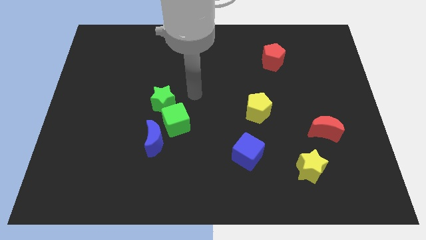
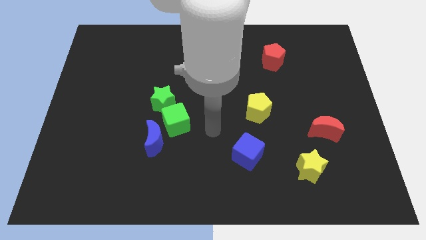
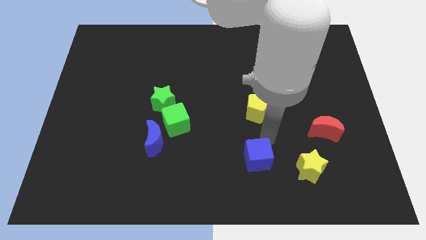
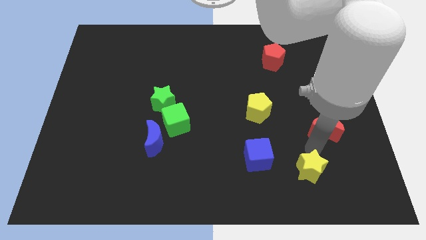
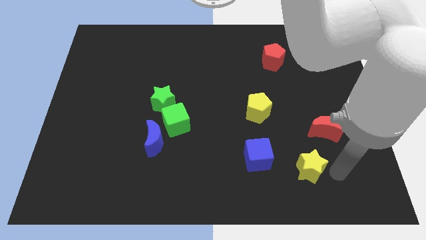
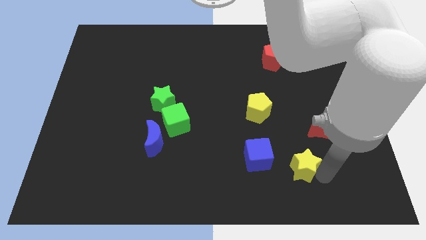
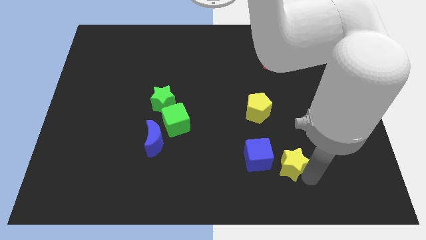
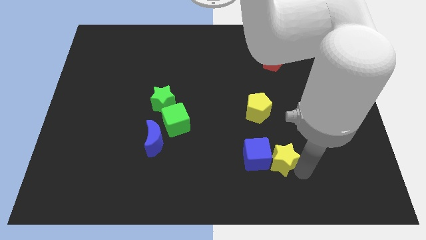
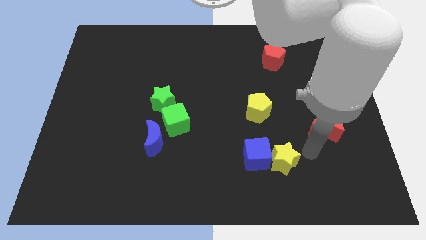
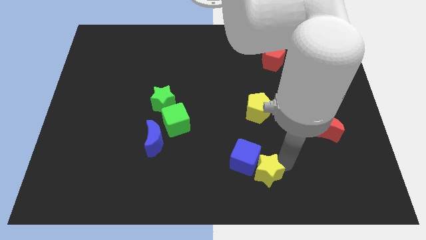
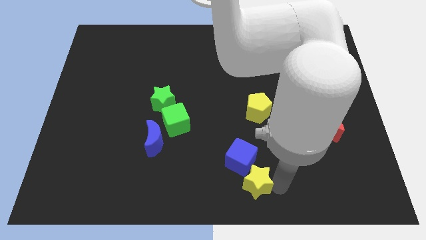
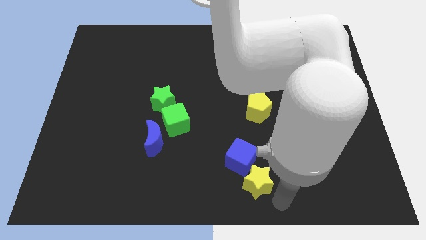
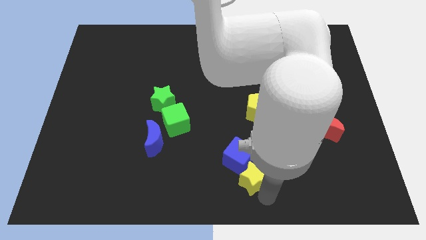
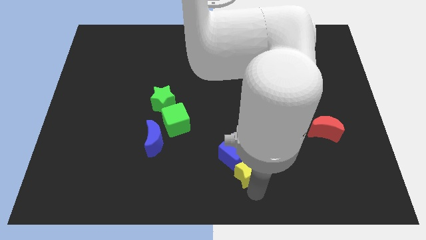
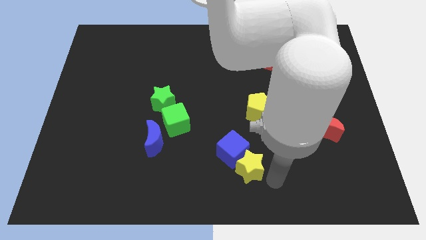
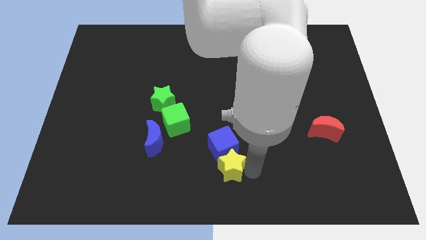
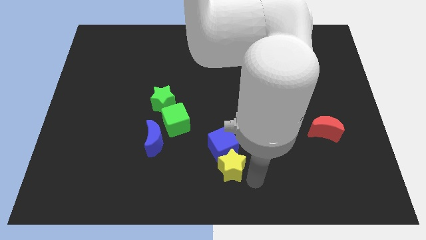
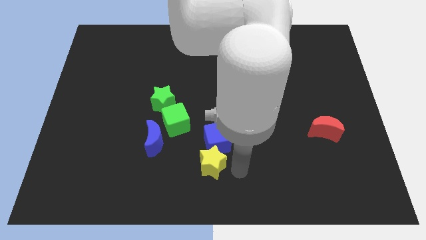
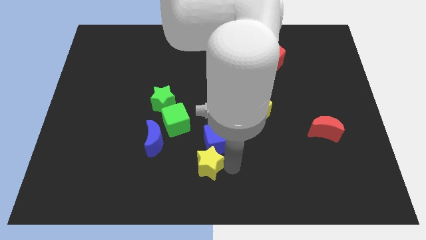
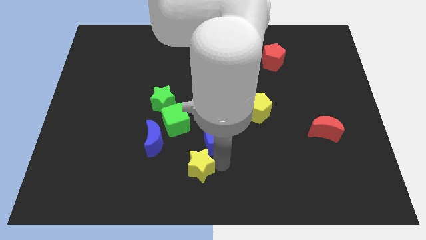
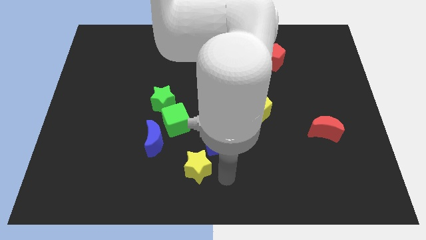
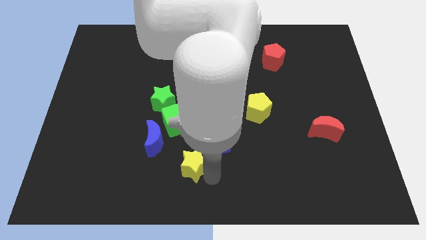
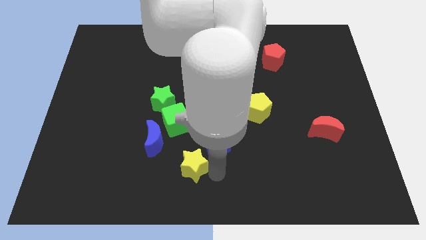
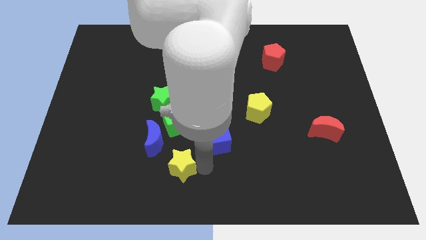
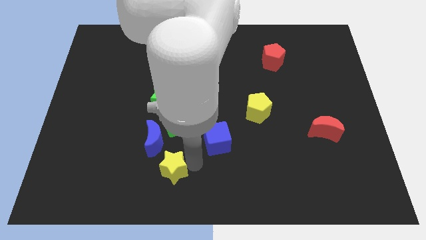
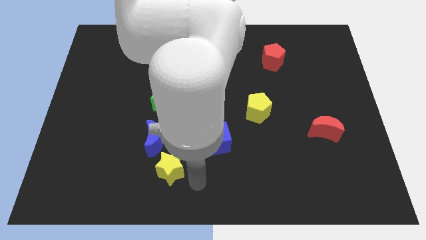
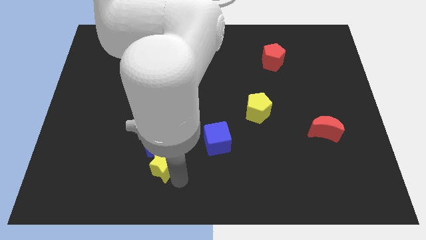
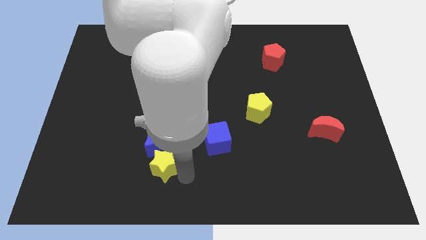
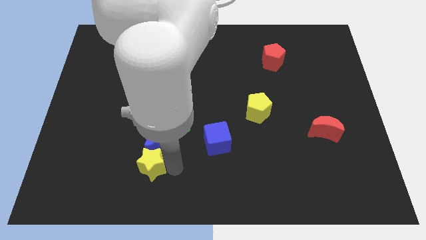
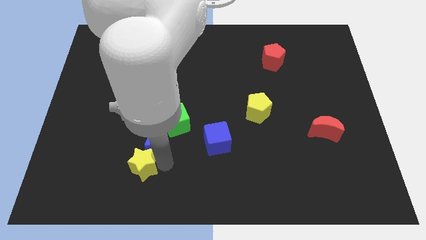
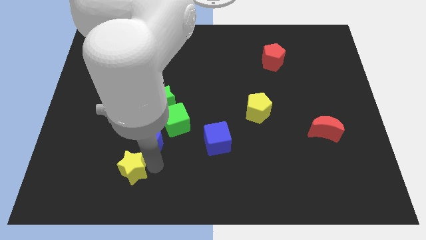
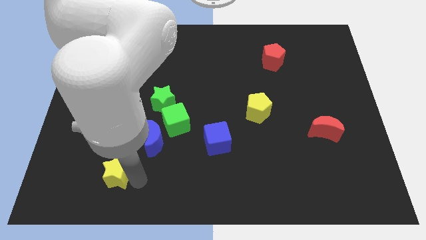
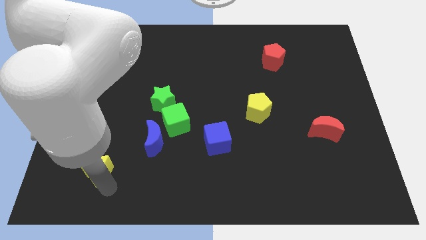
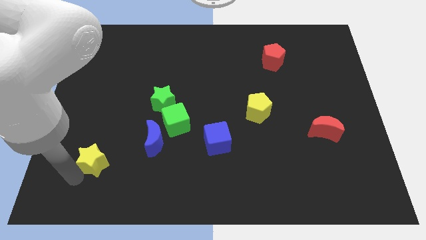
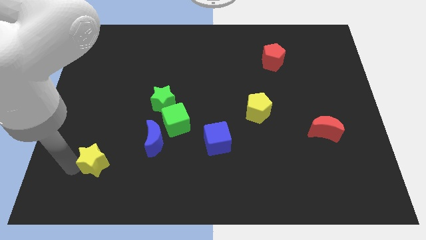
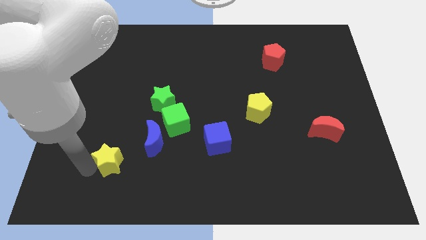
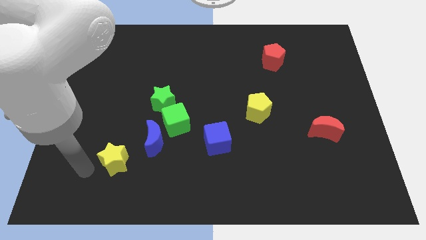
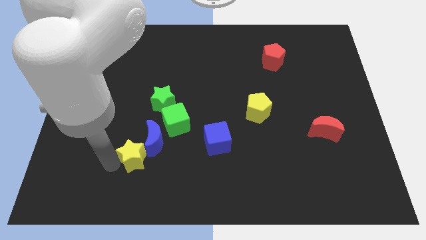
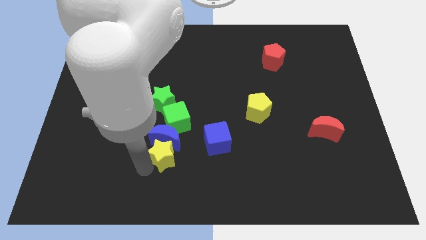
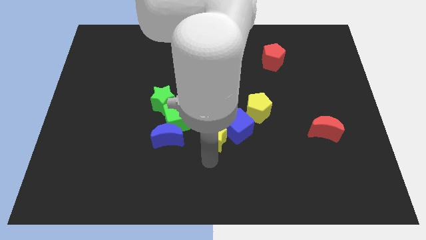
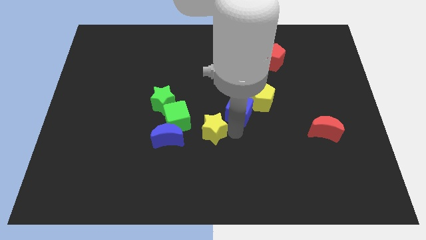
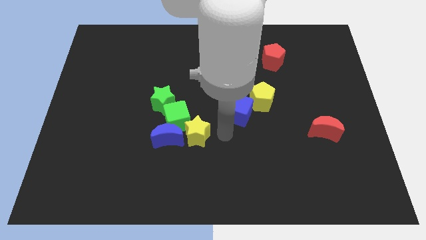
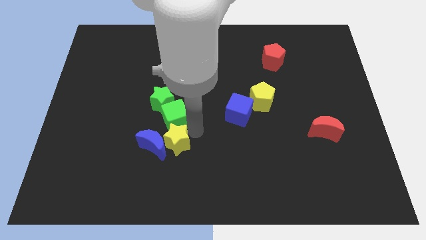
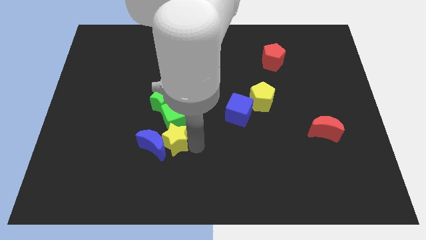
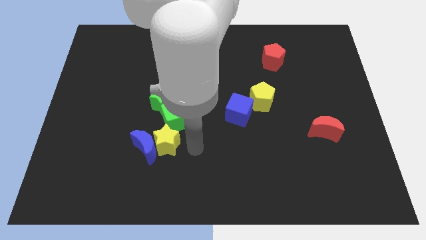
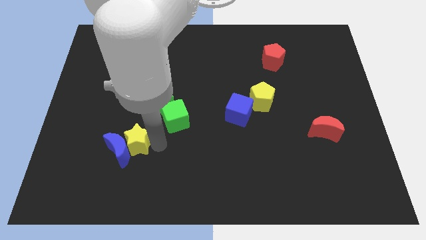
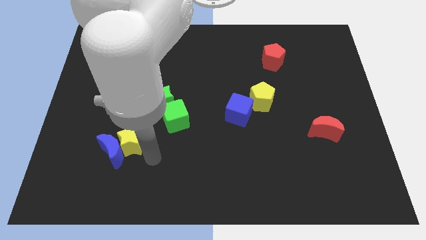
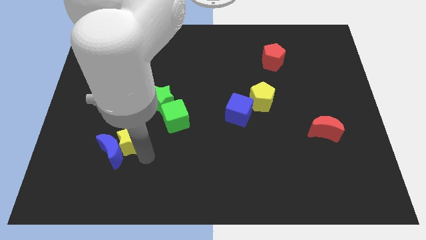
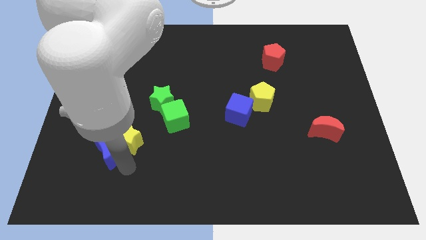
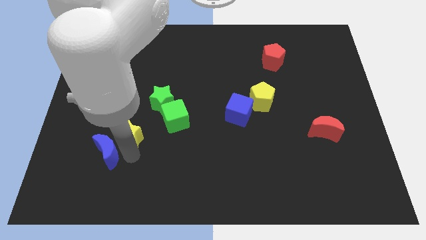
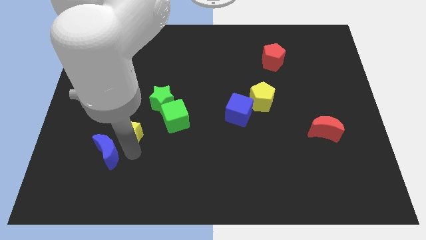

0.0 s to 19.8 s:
push the yellow star just left of the green cube

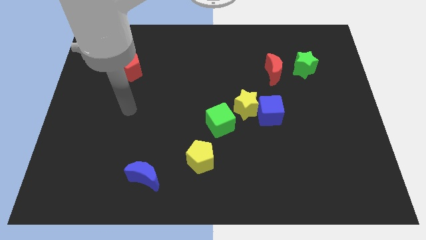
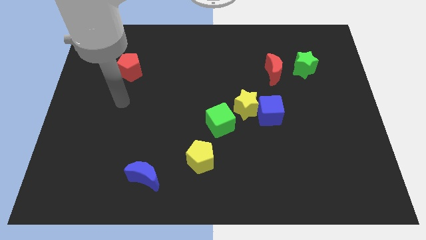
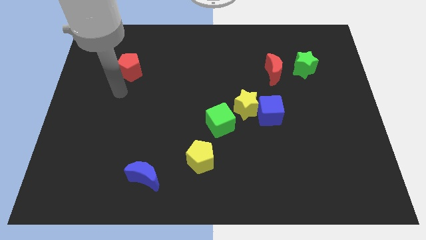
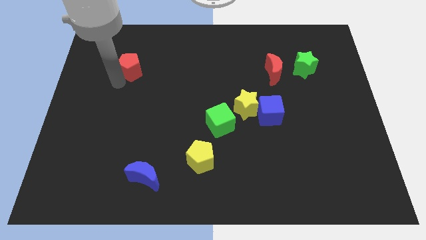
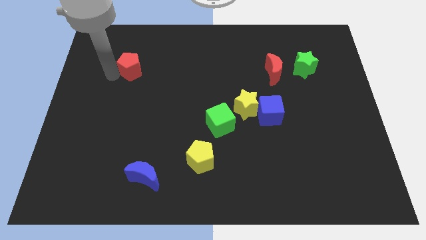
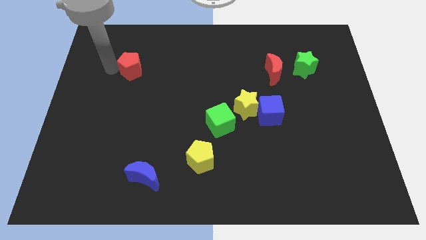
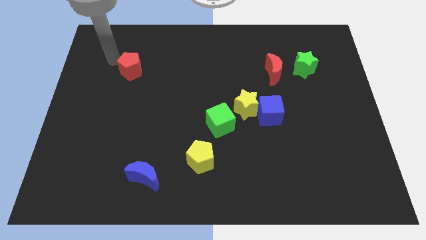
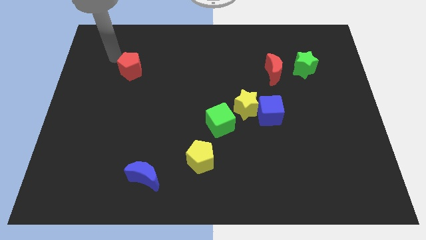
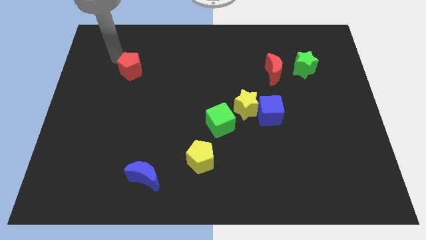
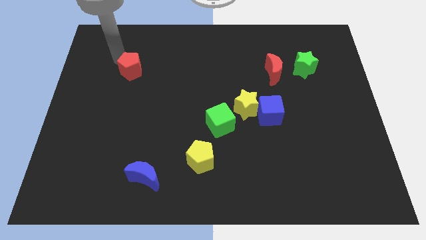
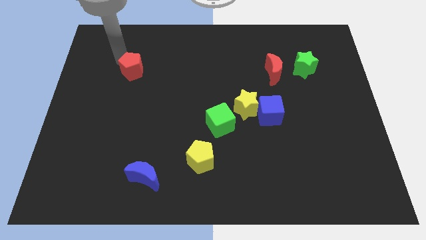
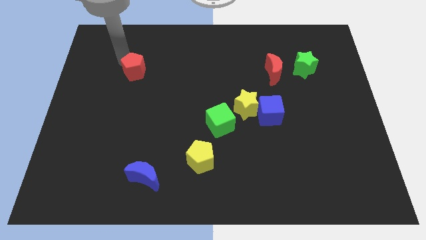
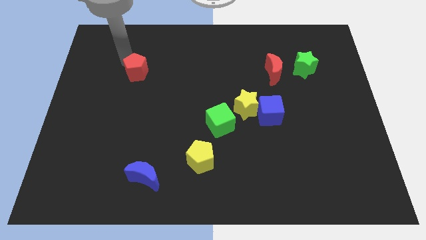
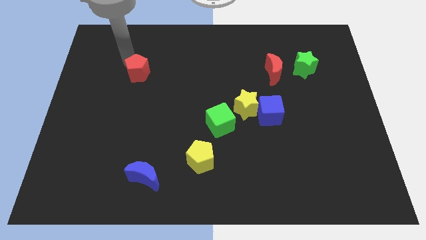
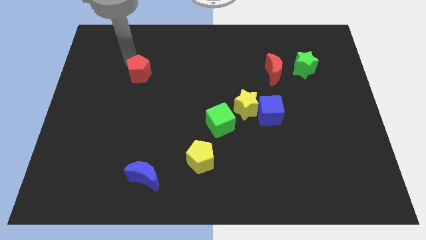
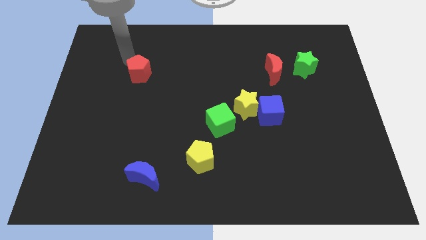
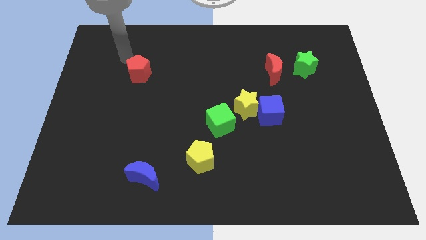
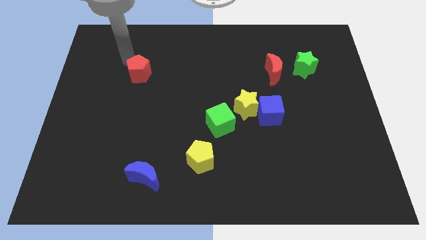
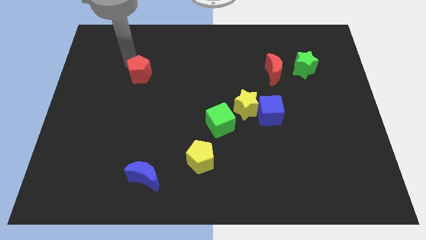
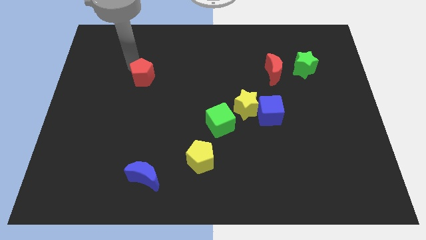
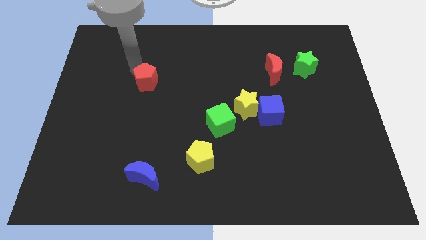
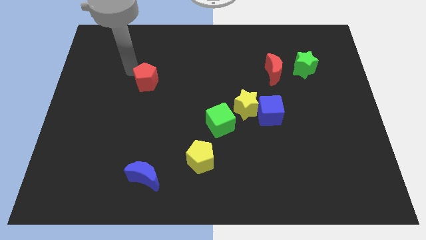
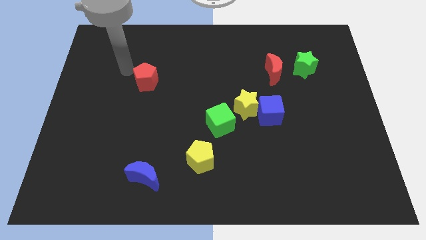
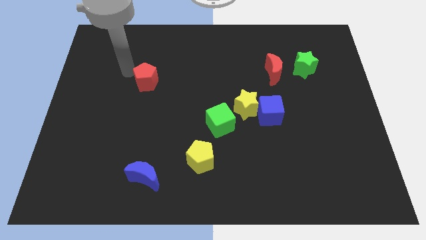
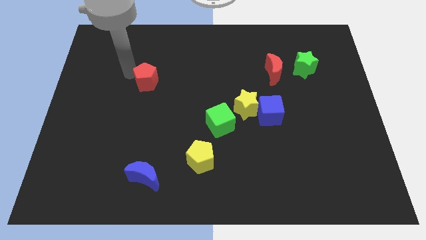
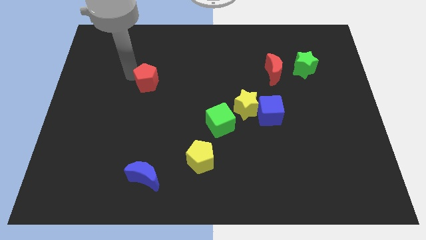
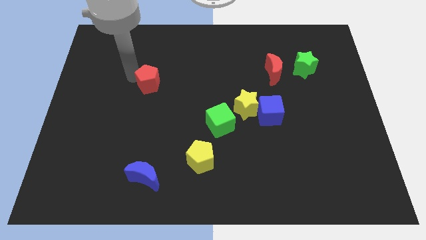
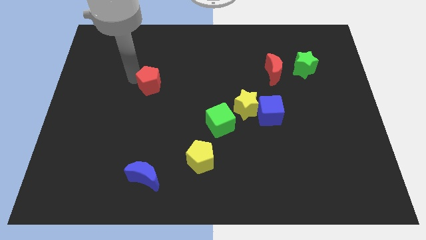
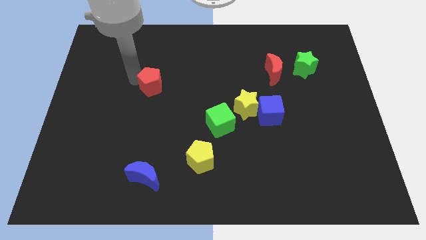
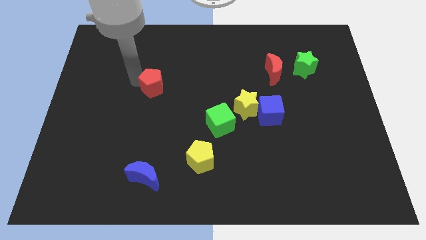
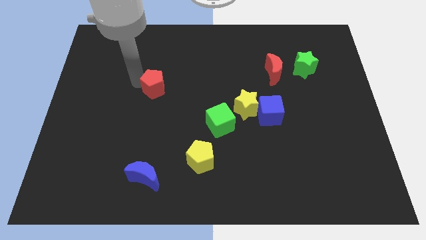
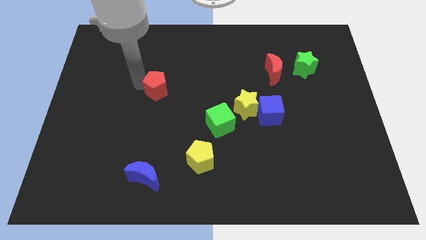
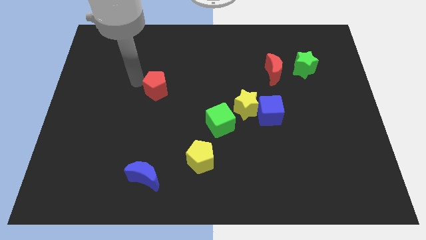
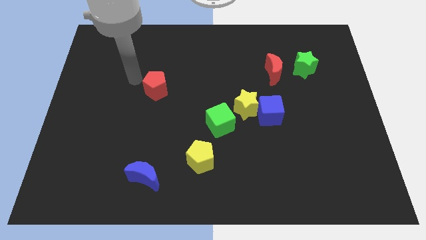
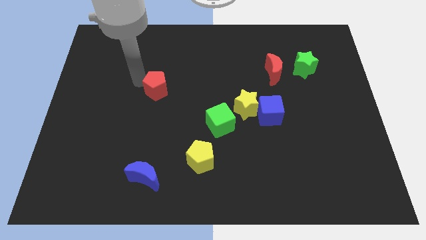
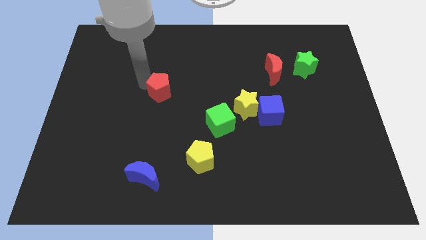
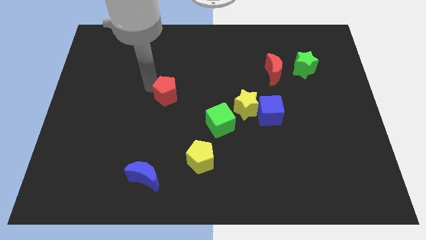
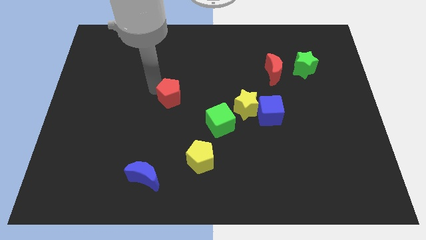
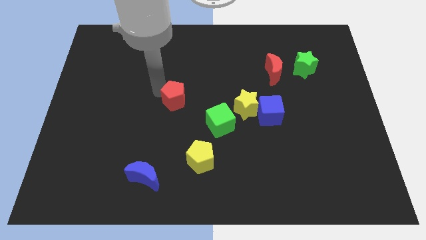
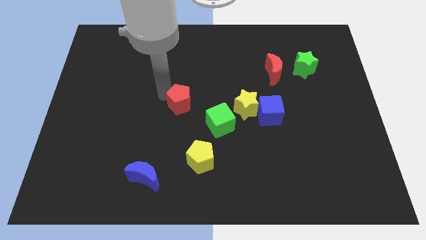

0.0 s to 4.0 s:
slide the red pentagon to the top left side of the green cube
